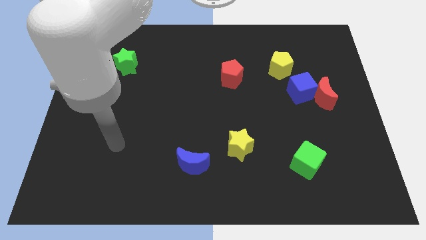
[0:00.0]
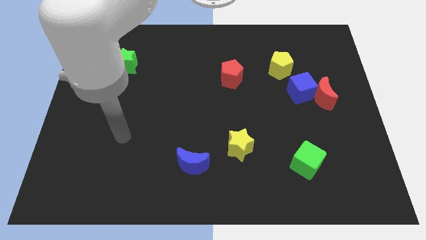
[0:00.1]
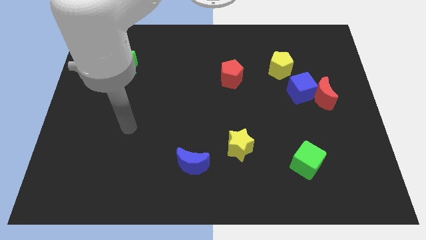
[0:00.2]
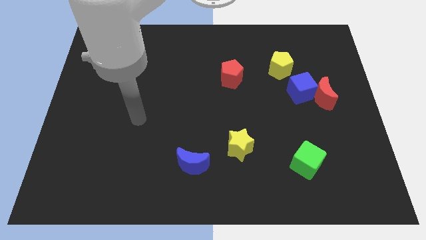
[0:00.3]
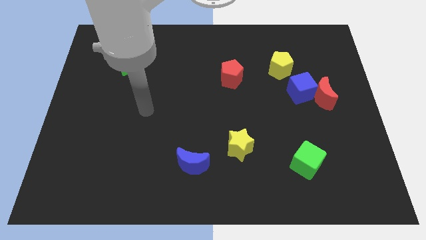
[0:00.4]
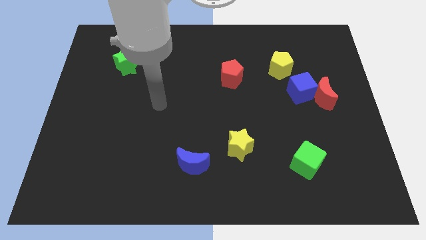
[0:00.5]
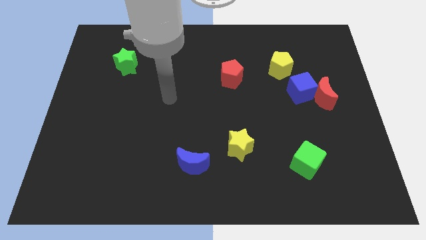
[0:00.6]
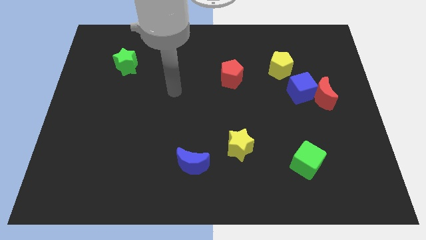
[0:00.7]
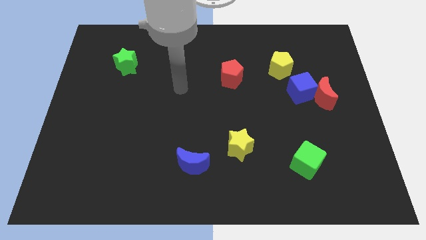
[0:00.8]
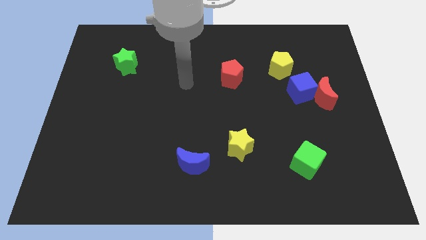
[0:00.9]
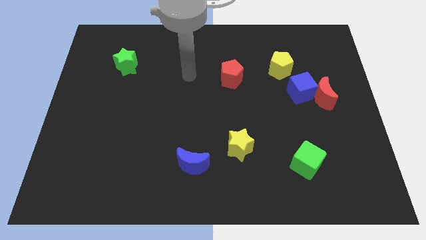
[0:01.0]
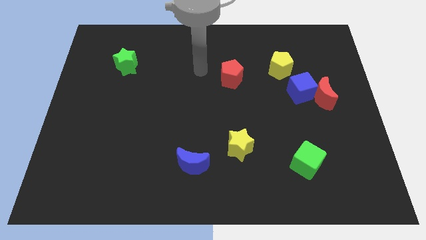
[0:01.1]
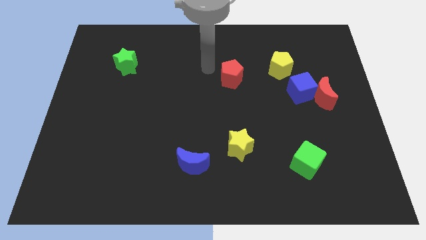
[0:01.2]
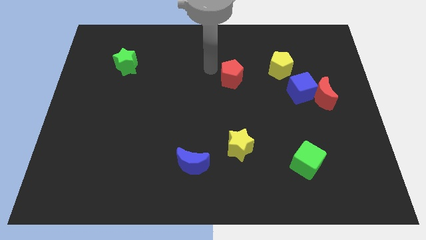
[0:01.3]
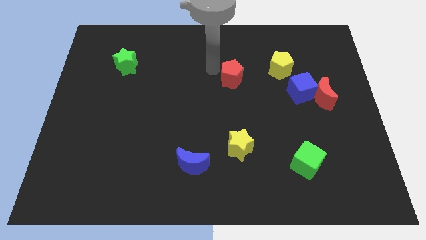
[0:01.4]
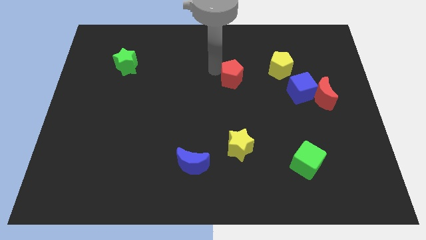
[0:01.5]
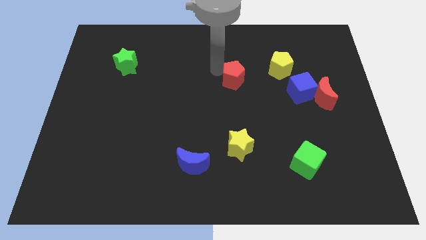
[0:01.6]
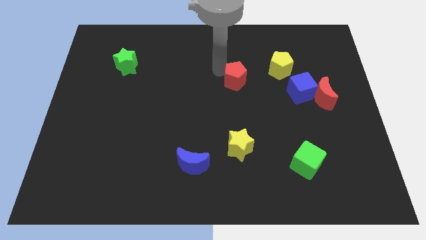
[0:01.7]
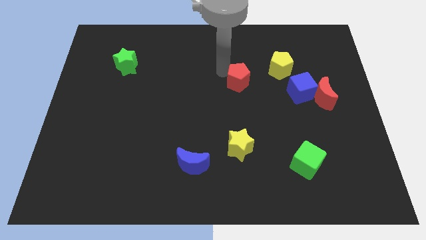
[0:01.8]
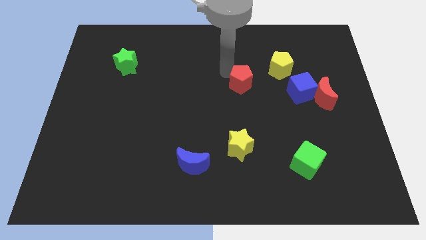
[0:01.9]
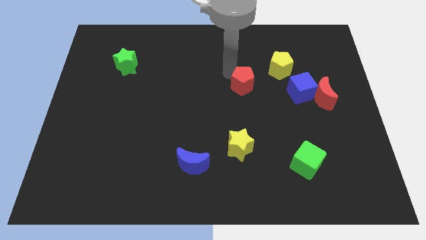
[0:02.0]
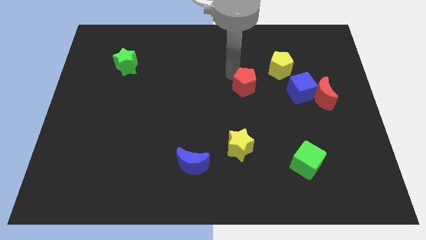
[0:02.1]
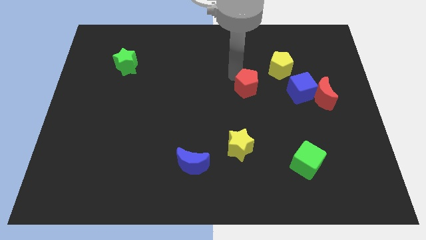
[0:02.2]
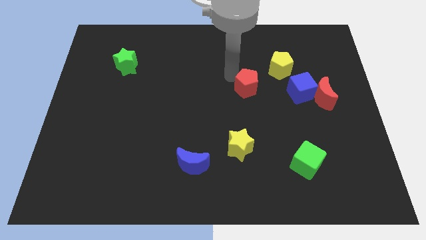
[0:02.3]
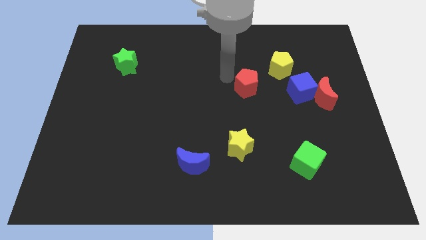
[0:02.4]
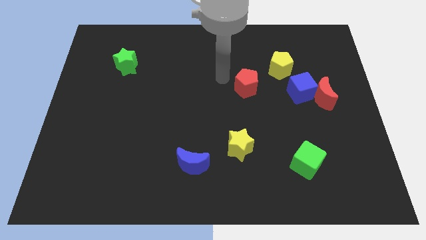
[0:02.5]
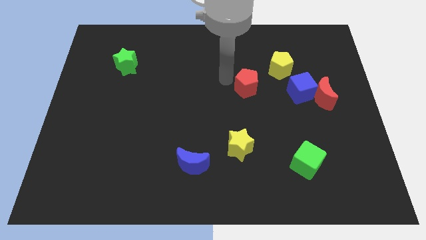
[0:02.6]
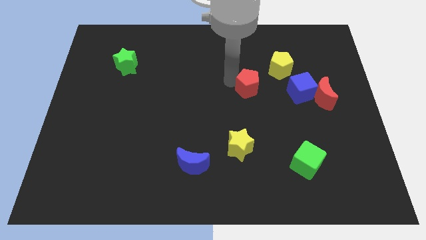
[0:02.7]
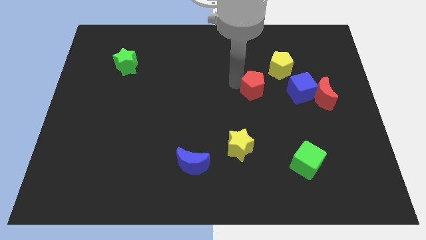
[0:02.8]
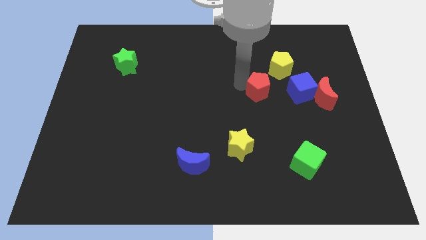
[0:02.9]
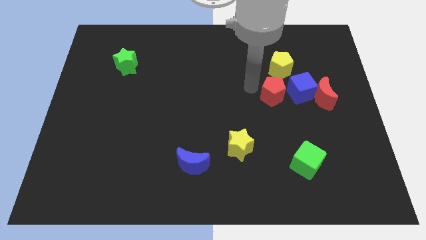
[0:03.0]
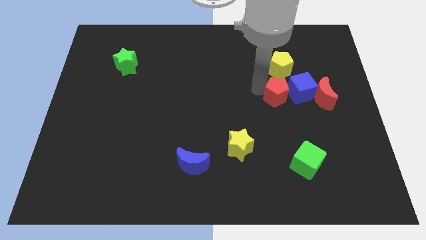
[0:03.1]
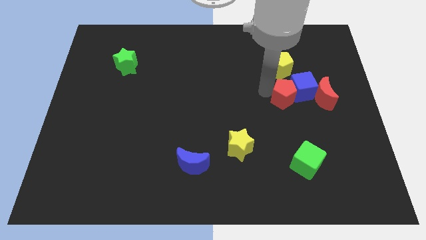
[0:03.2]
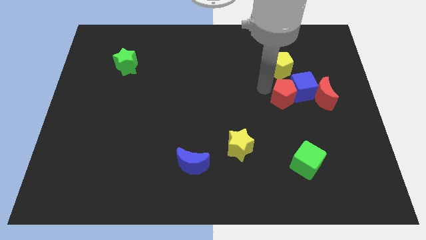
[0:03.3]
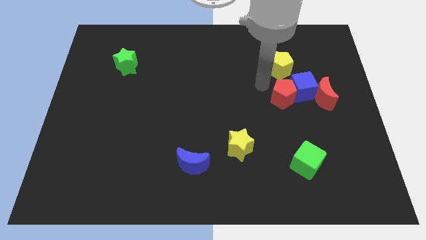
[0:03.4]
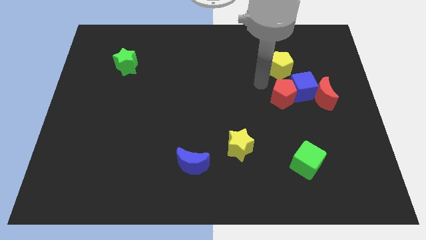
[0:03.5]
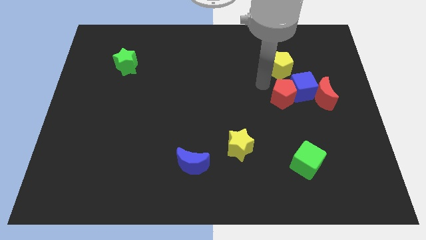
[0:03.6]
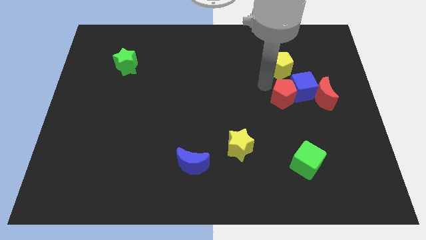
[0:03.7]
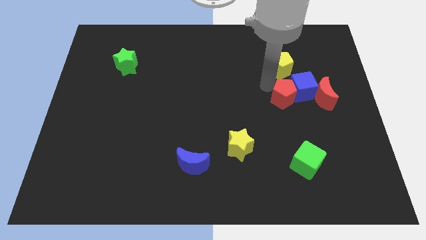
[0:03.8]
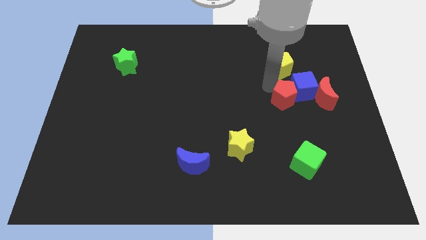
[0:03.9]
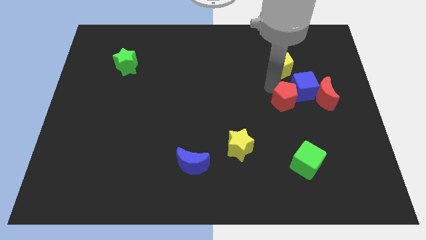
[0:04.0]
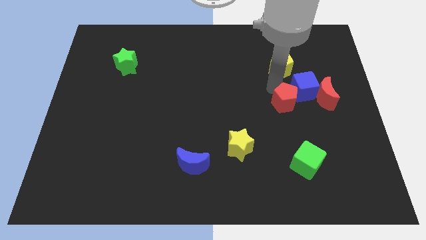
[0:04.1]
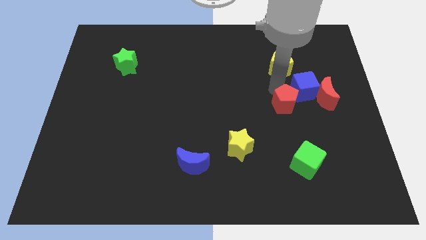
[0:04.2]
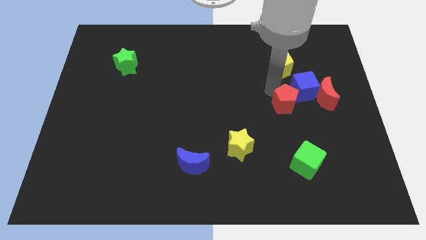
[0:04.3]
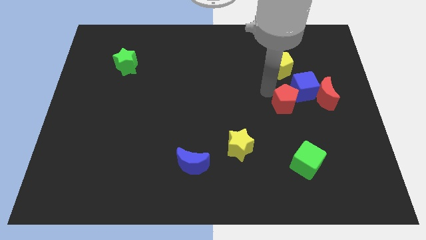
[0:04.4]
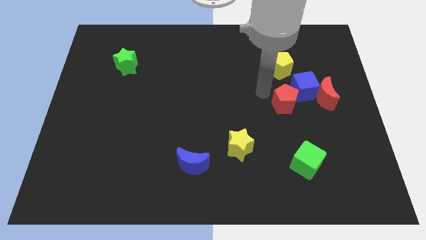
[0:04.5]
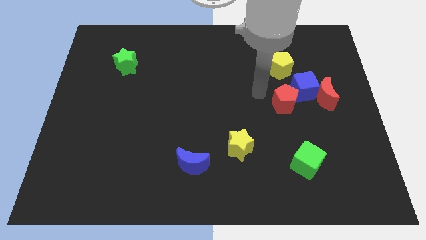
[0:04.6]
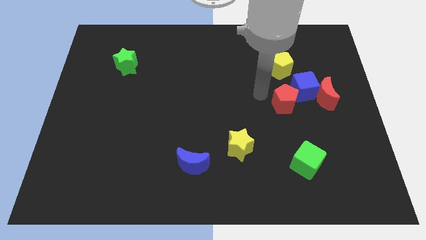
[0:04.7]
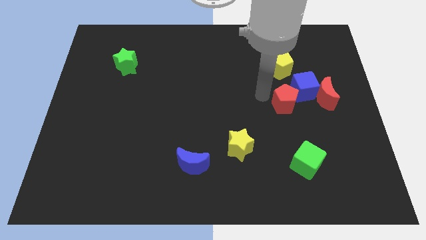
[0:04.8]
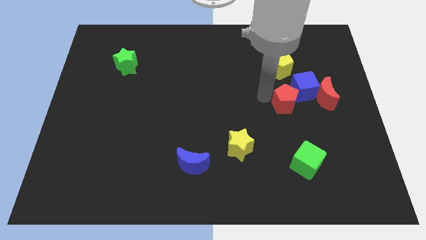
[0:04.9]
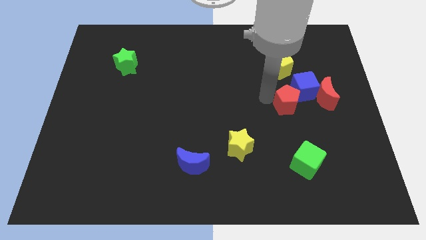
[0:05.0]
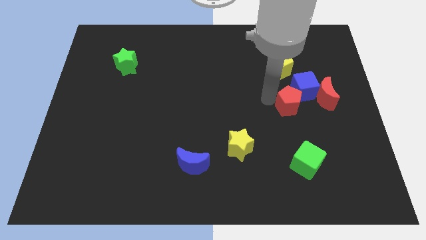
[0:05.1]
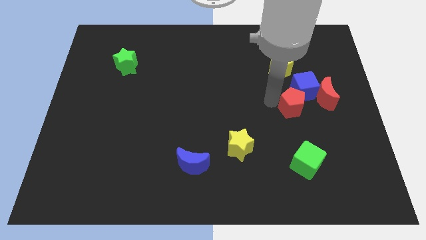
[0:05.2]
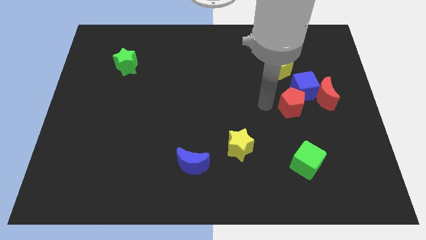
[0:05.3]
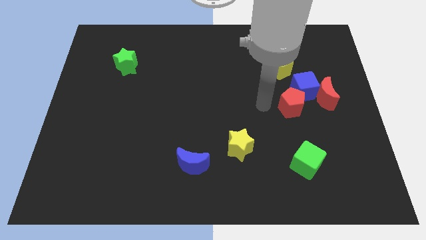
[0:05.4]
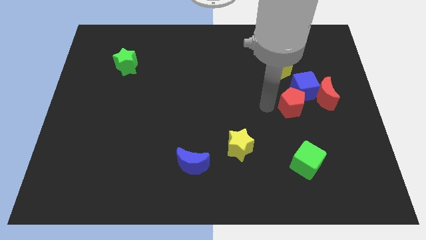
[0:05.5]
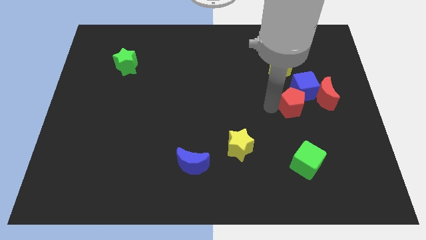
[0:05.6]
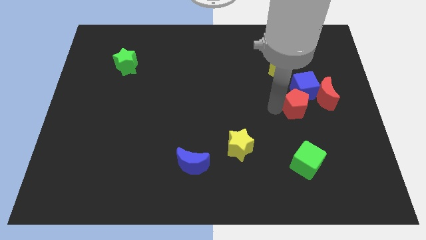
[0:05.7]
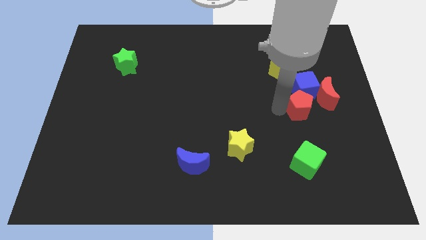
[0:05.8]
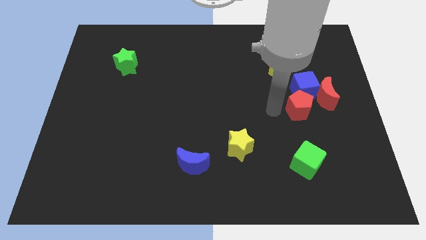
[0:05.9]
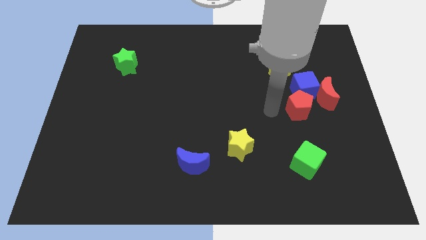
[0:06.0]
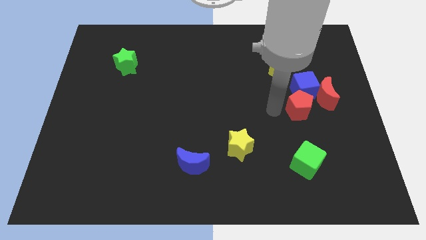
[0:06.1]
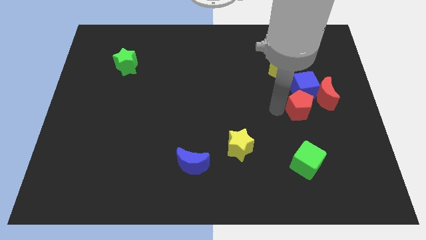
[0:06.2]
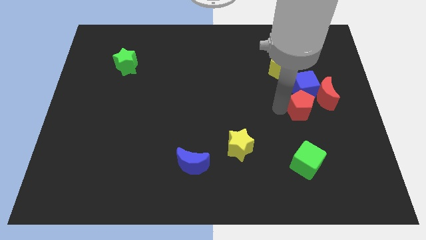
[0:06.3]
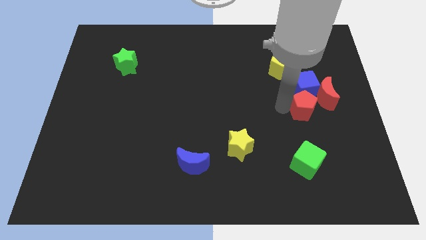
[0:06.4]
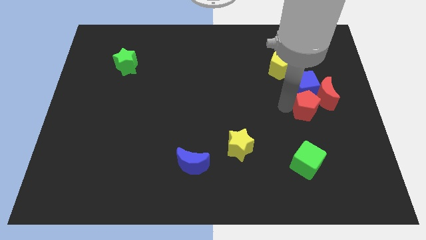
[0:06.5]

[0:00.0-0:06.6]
slide the red pentagon to the bottom right side of the blue cube
